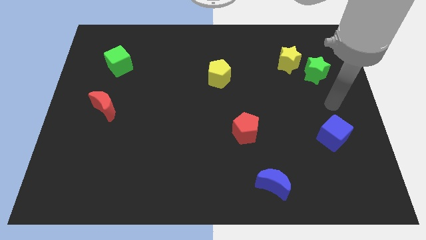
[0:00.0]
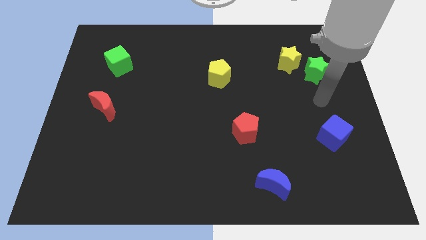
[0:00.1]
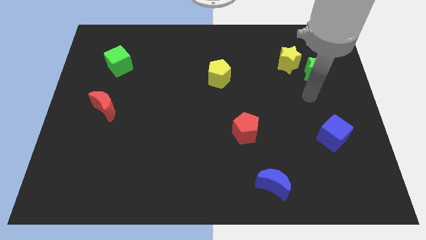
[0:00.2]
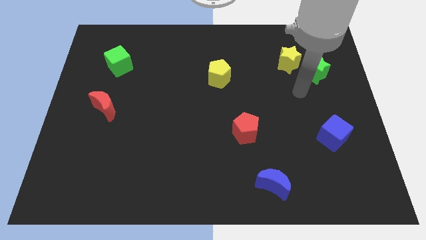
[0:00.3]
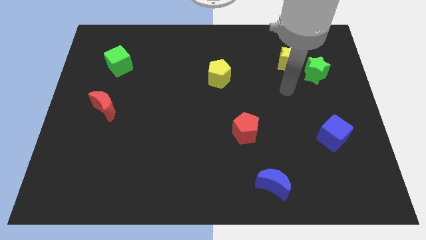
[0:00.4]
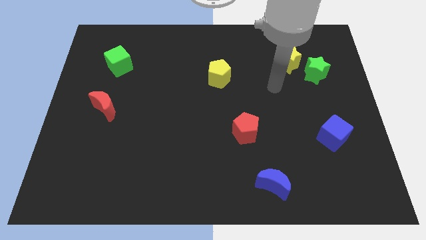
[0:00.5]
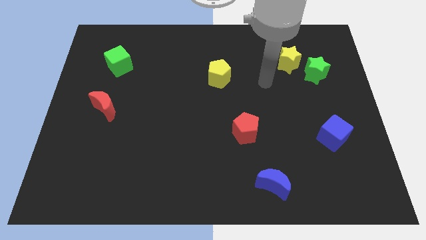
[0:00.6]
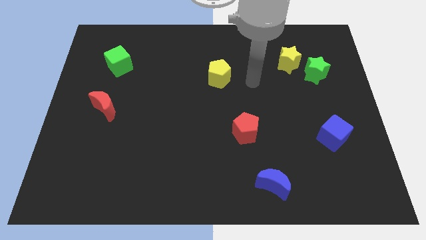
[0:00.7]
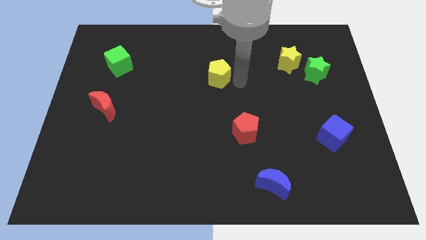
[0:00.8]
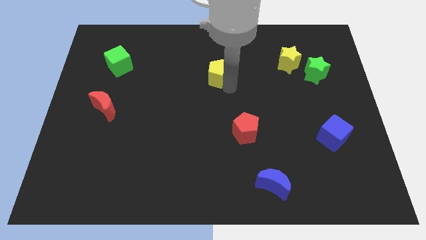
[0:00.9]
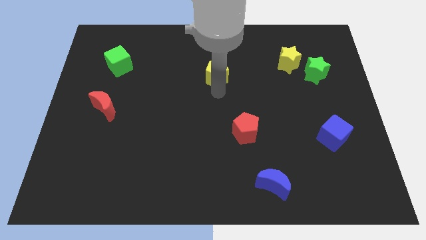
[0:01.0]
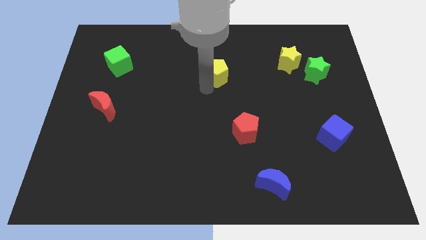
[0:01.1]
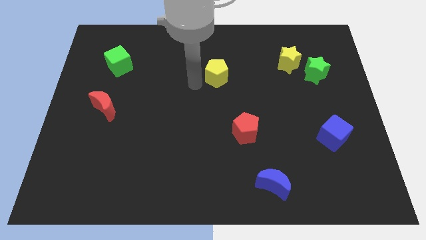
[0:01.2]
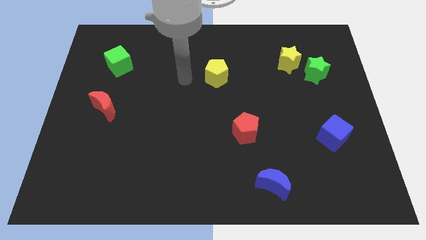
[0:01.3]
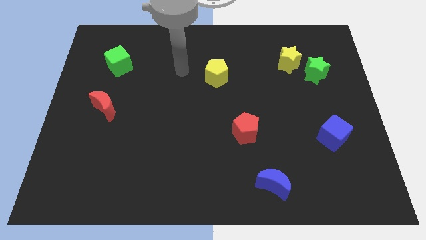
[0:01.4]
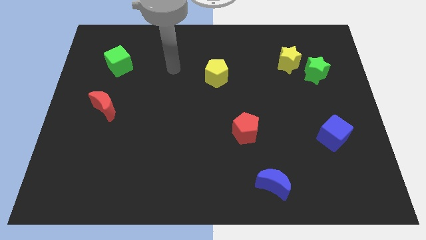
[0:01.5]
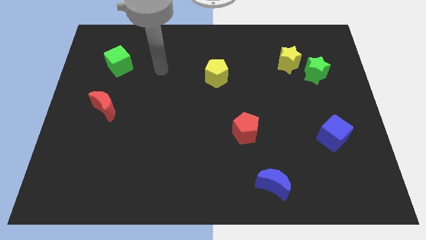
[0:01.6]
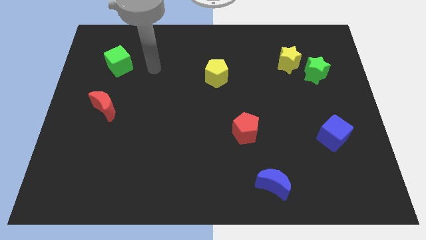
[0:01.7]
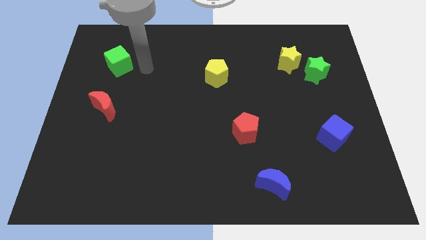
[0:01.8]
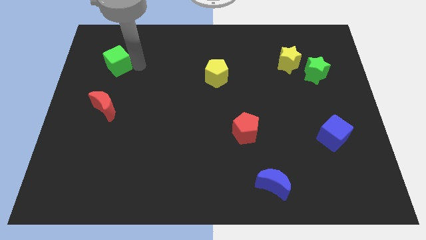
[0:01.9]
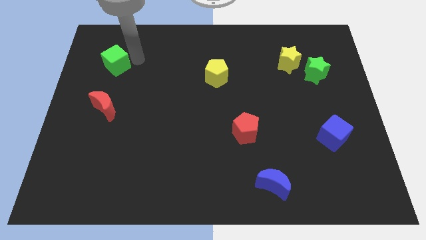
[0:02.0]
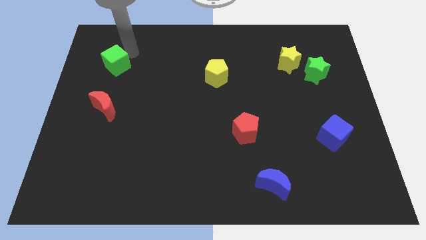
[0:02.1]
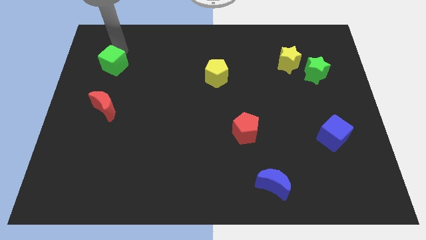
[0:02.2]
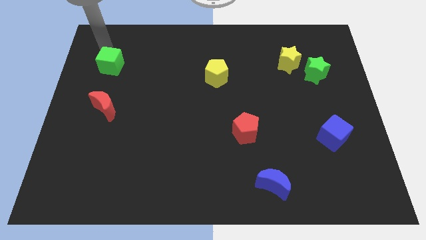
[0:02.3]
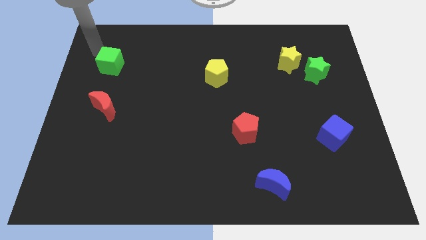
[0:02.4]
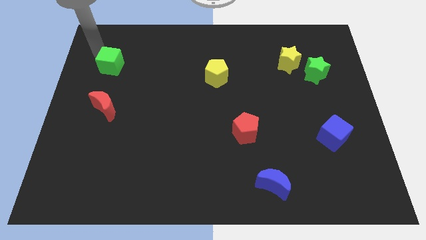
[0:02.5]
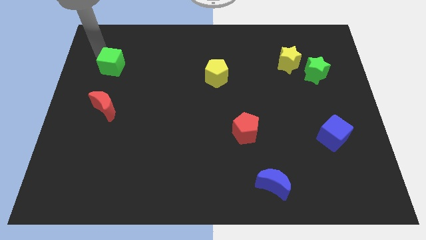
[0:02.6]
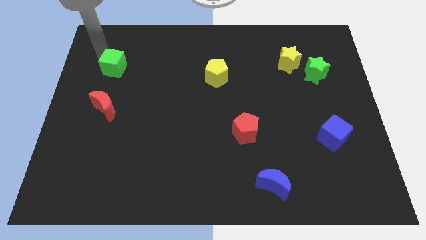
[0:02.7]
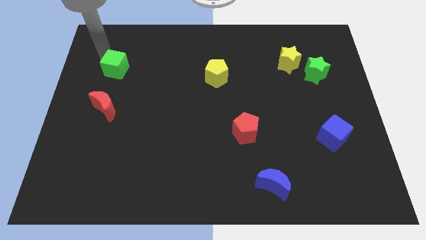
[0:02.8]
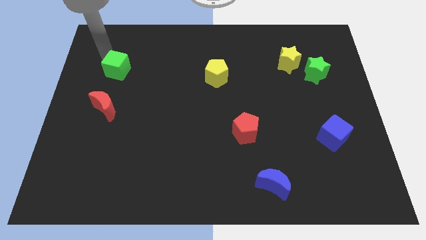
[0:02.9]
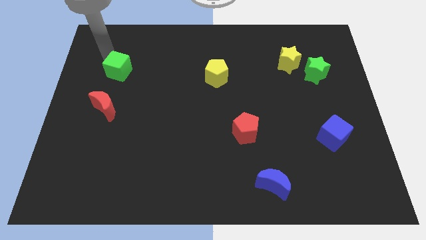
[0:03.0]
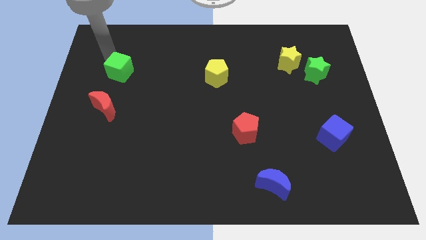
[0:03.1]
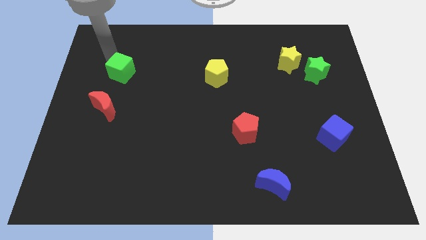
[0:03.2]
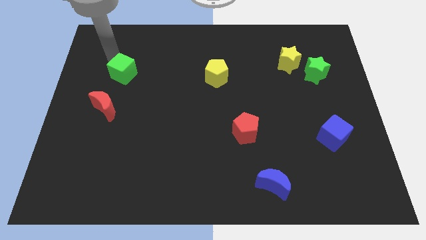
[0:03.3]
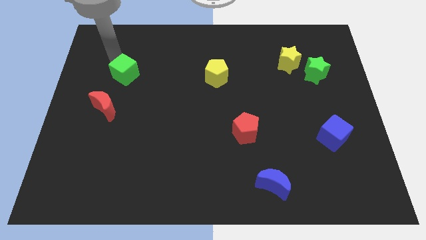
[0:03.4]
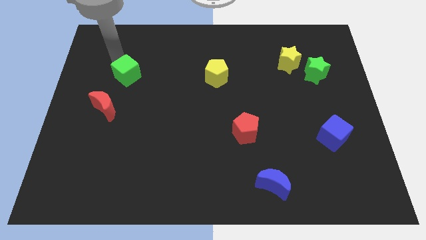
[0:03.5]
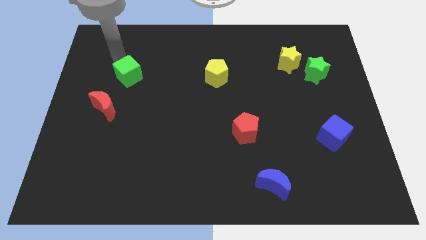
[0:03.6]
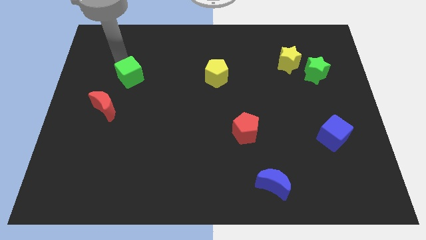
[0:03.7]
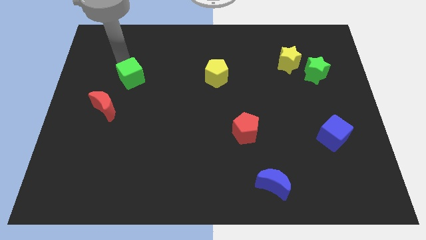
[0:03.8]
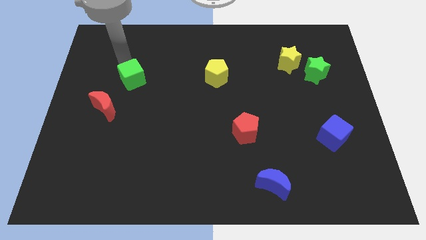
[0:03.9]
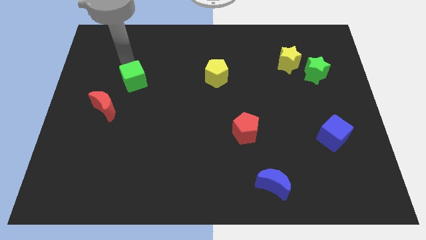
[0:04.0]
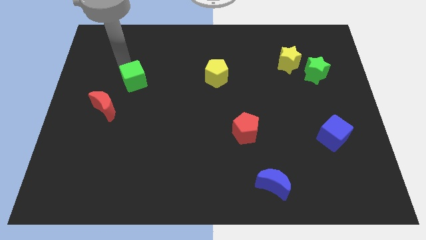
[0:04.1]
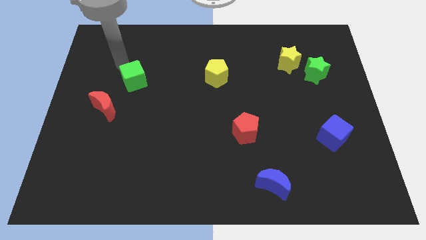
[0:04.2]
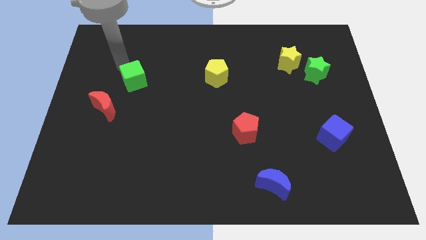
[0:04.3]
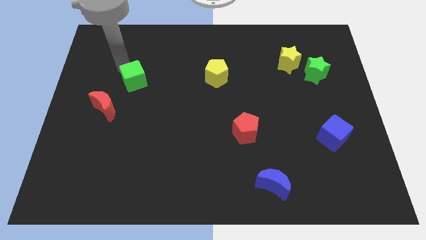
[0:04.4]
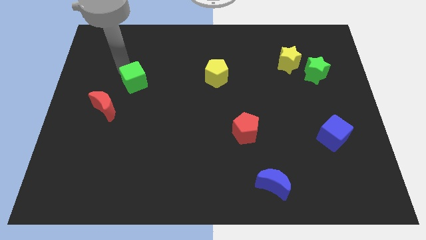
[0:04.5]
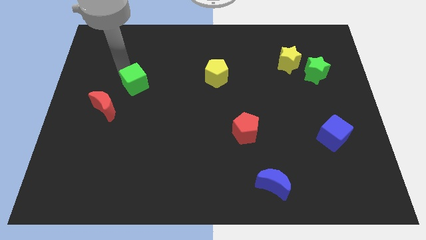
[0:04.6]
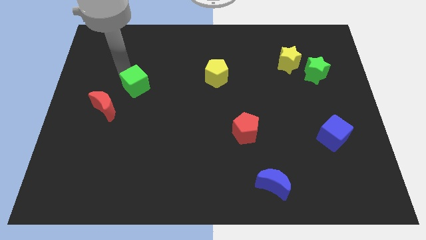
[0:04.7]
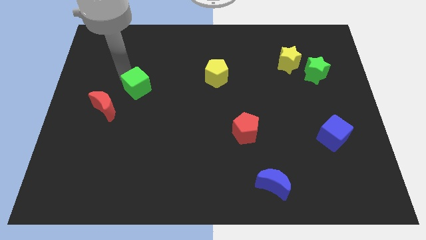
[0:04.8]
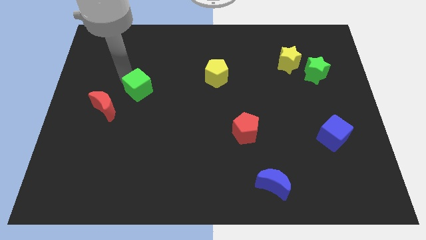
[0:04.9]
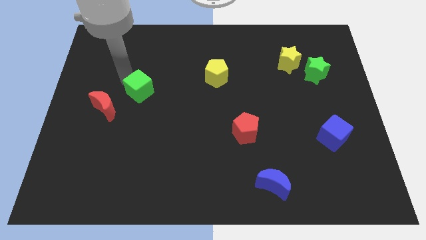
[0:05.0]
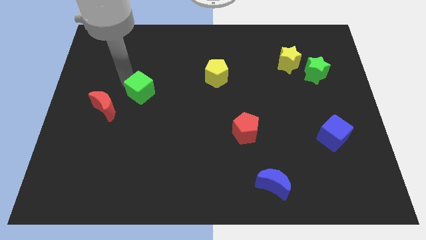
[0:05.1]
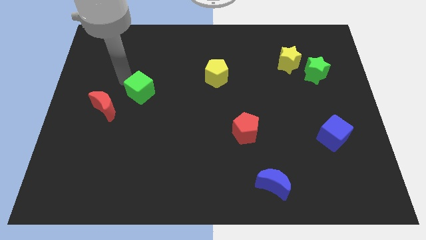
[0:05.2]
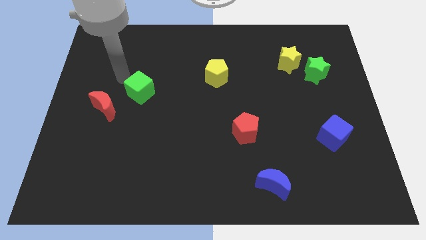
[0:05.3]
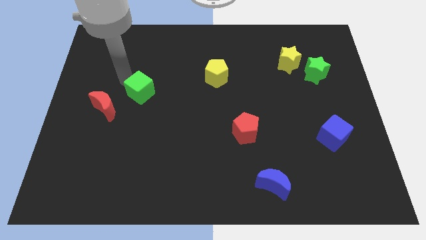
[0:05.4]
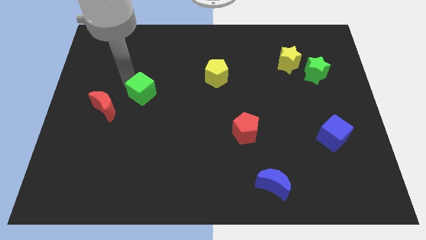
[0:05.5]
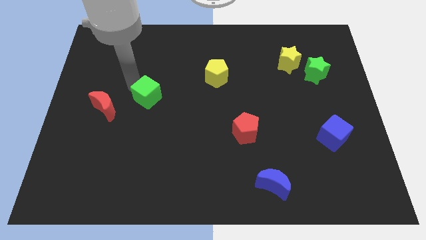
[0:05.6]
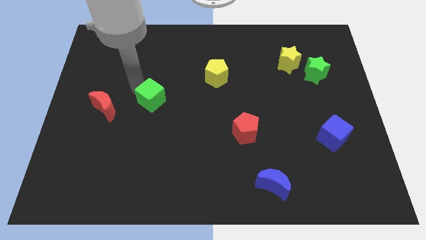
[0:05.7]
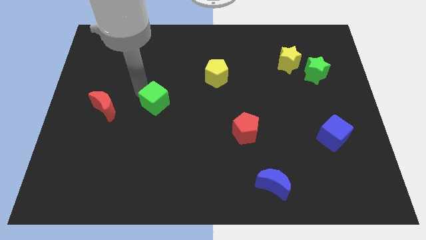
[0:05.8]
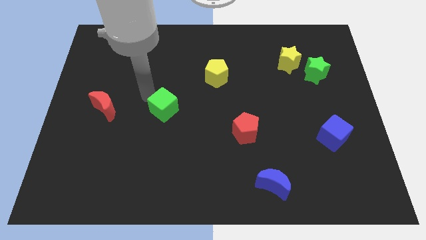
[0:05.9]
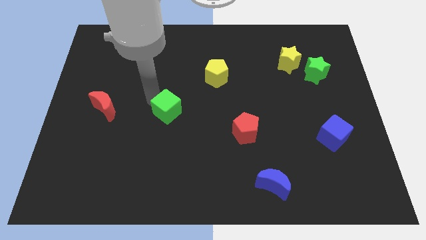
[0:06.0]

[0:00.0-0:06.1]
push the green cube downwards and to the right diagonally

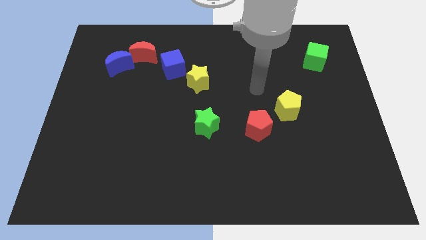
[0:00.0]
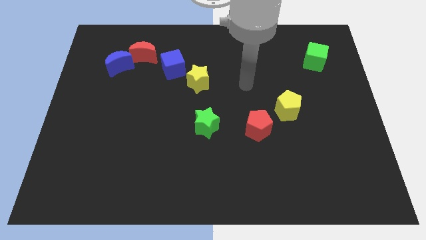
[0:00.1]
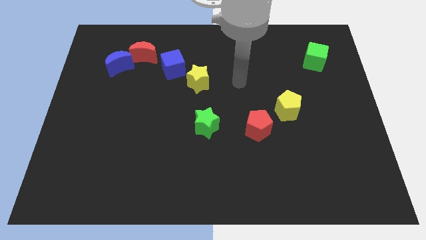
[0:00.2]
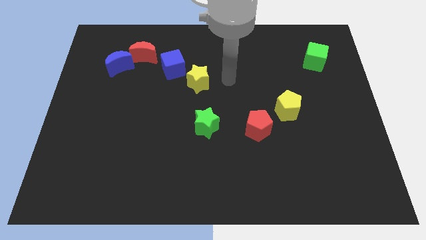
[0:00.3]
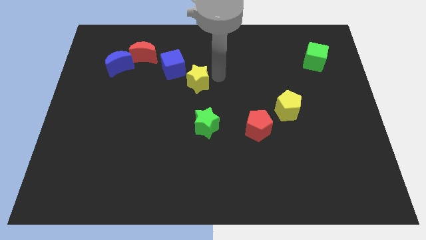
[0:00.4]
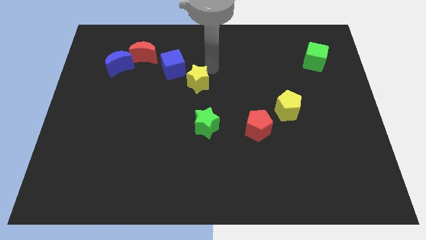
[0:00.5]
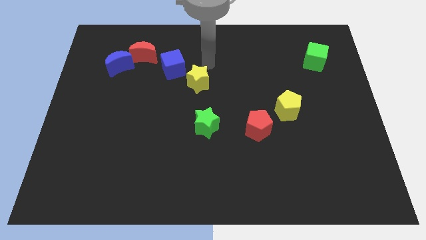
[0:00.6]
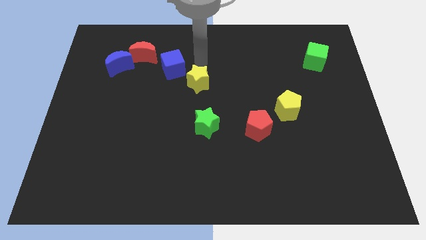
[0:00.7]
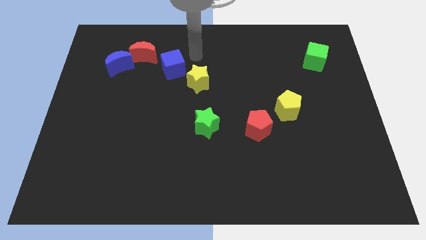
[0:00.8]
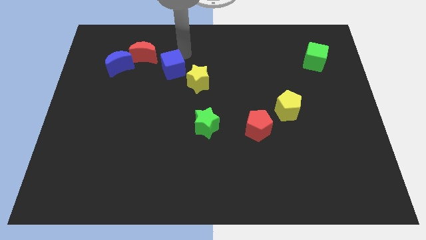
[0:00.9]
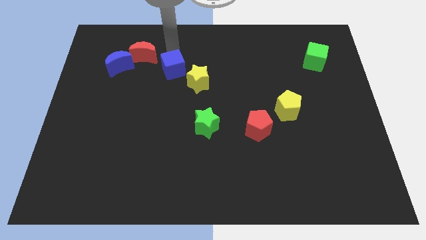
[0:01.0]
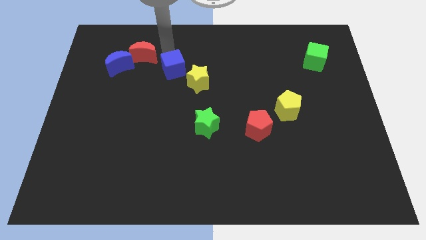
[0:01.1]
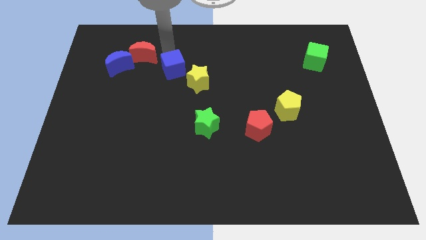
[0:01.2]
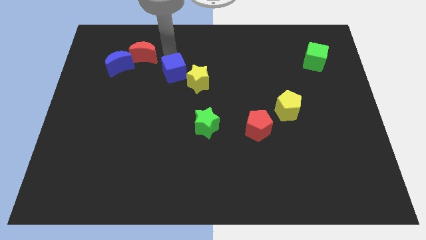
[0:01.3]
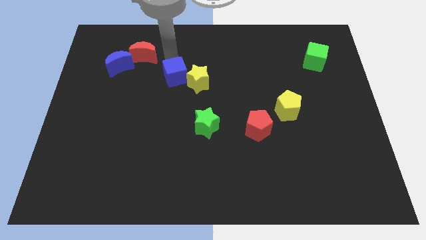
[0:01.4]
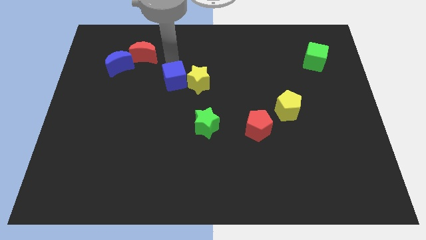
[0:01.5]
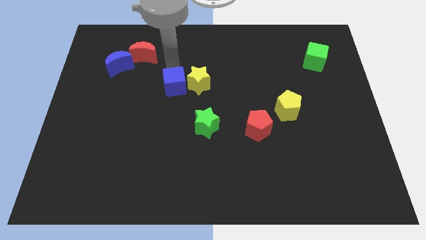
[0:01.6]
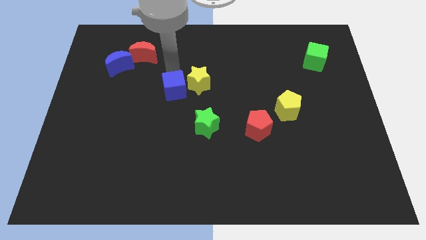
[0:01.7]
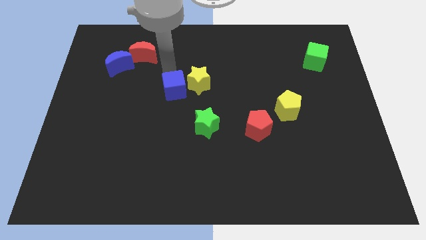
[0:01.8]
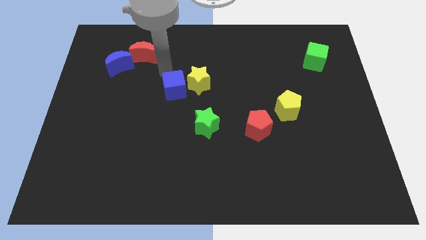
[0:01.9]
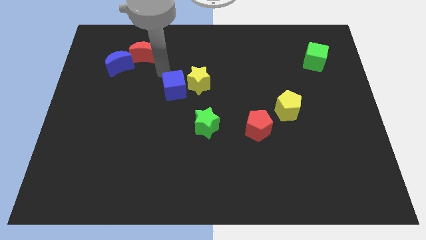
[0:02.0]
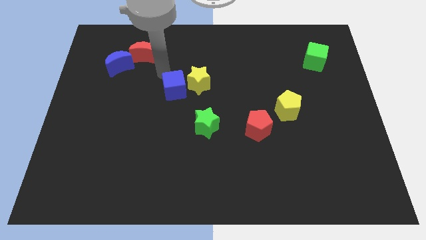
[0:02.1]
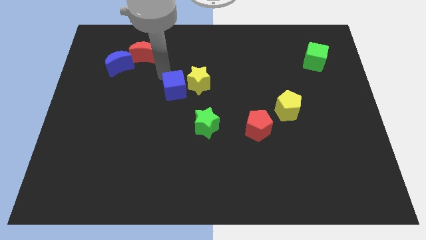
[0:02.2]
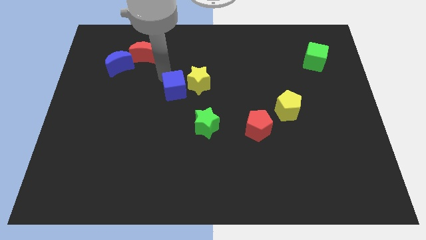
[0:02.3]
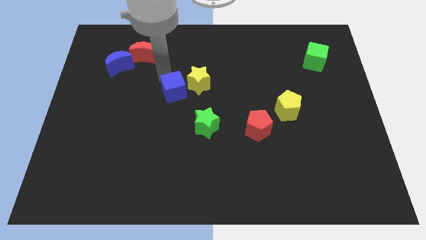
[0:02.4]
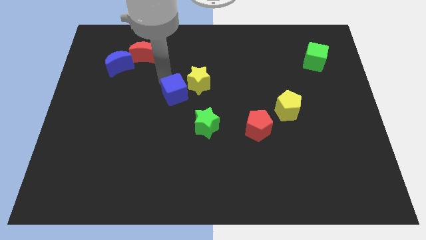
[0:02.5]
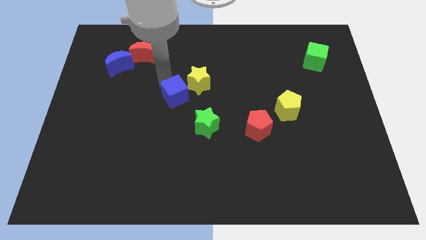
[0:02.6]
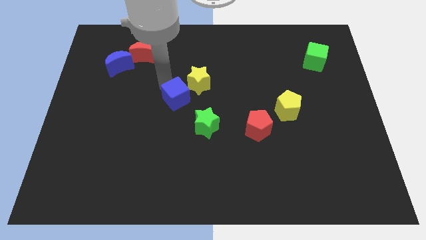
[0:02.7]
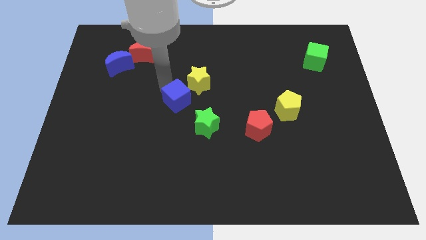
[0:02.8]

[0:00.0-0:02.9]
slightly slide the blue cube downwards and right diagonally
